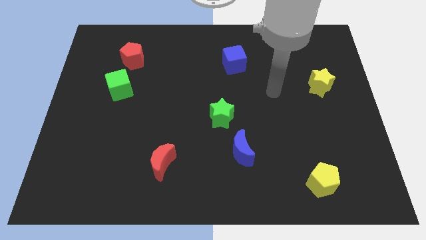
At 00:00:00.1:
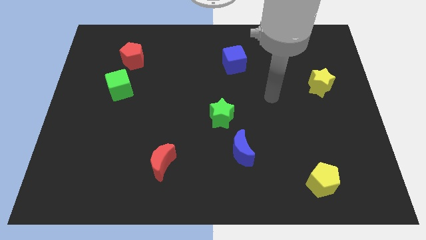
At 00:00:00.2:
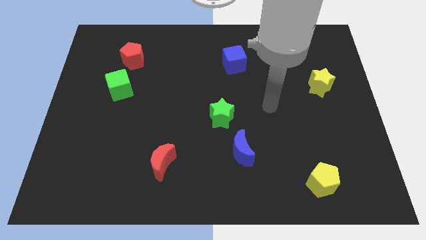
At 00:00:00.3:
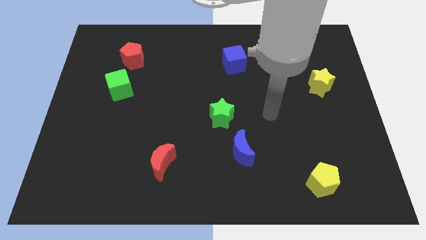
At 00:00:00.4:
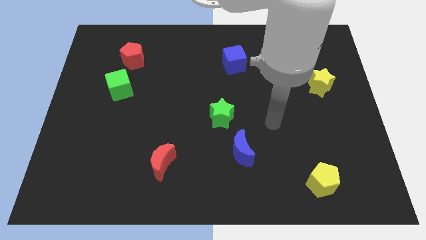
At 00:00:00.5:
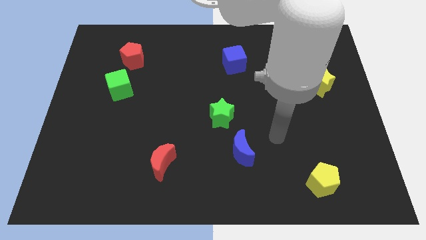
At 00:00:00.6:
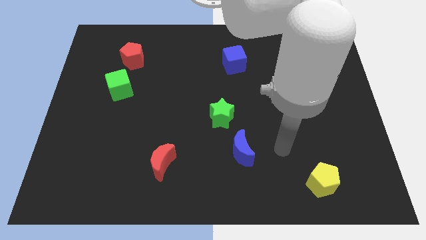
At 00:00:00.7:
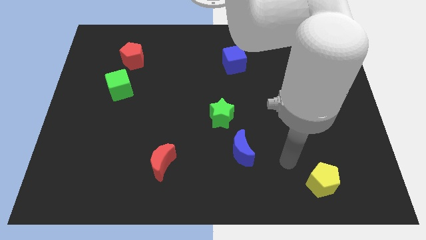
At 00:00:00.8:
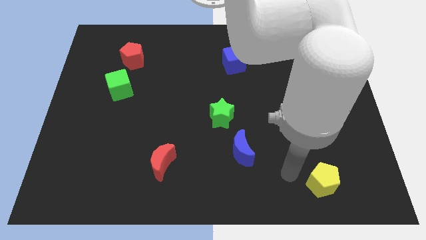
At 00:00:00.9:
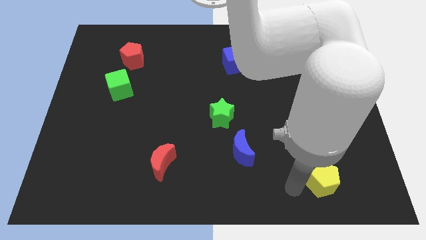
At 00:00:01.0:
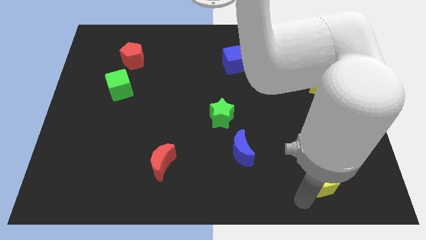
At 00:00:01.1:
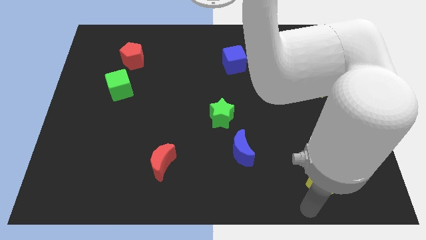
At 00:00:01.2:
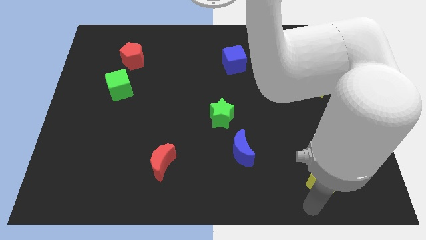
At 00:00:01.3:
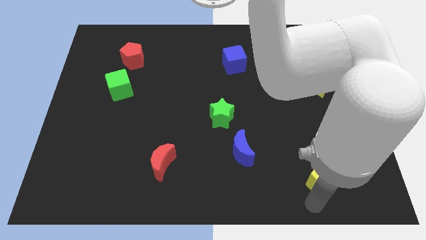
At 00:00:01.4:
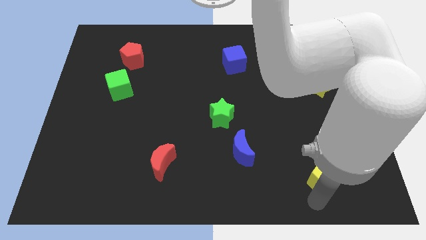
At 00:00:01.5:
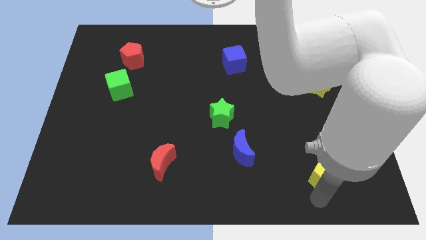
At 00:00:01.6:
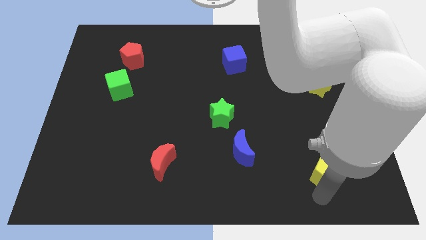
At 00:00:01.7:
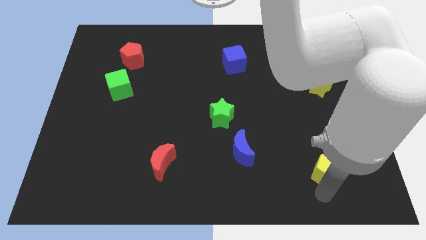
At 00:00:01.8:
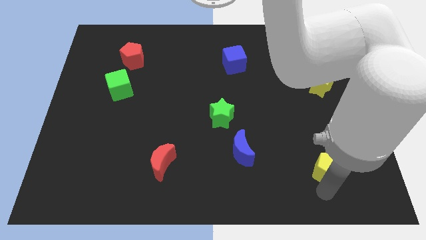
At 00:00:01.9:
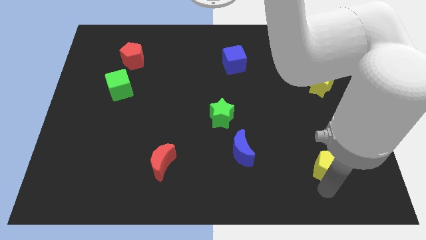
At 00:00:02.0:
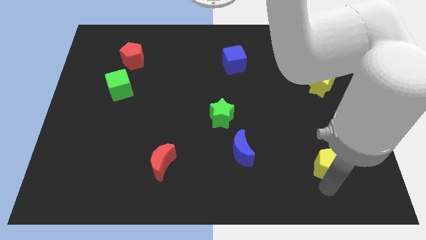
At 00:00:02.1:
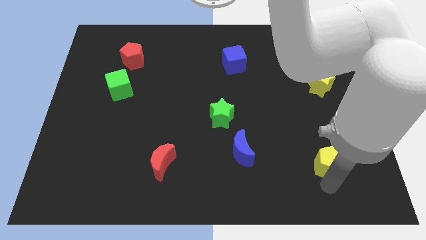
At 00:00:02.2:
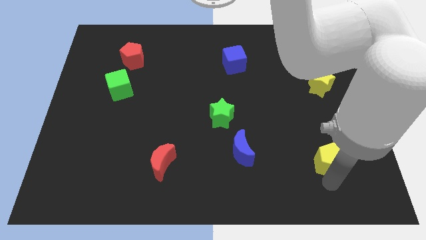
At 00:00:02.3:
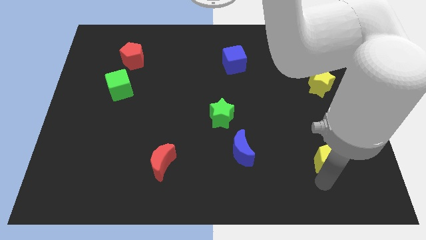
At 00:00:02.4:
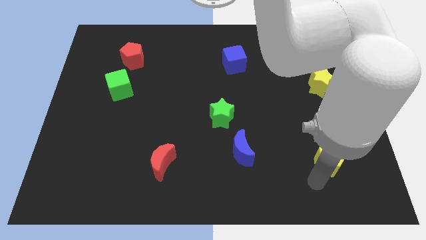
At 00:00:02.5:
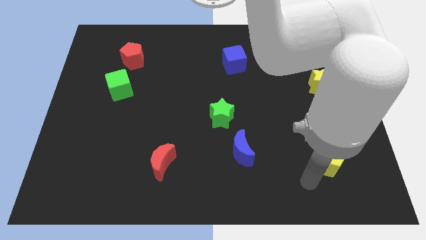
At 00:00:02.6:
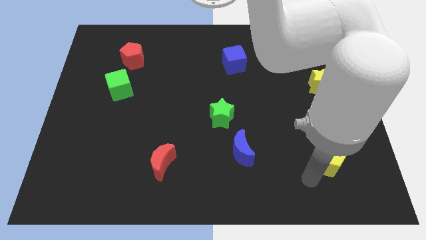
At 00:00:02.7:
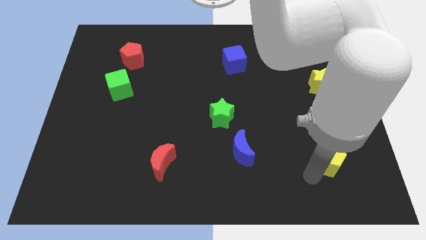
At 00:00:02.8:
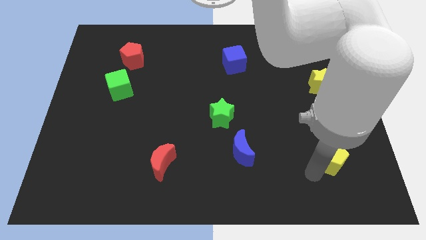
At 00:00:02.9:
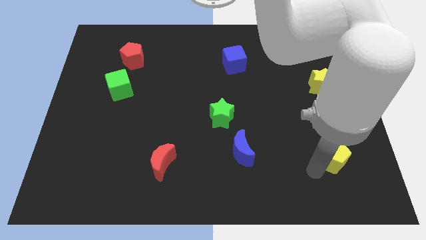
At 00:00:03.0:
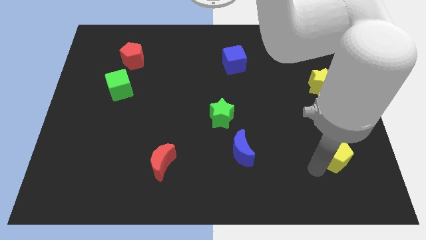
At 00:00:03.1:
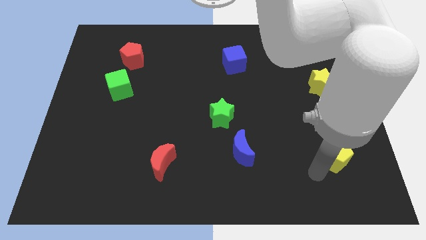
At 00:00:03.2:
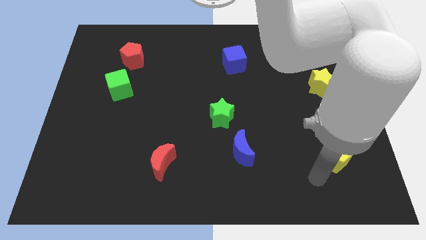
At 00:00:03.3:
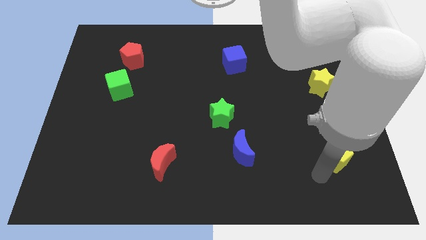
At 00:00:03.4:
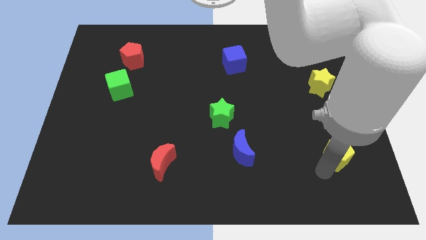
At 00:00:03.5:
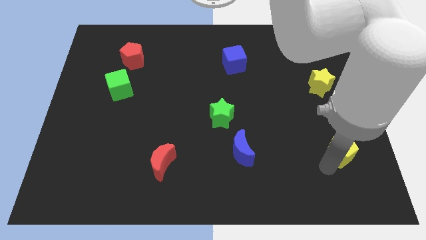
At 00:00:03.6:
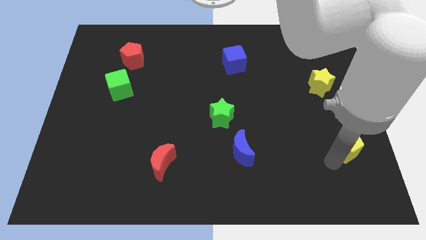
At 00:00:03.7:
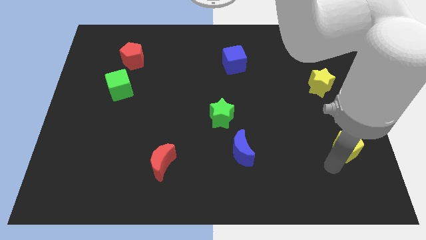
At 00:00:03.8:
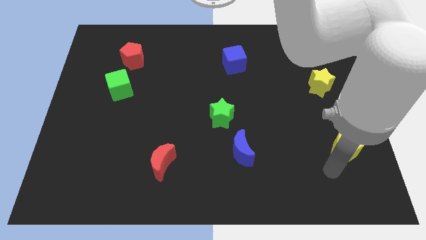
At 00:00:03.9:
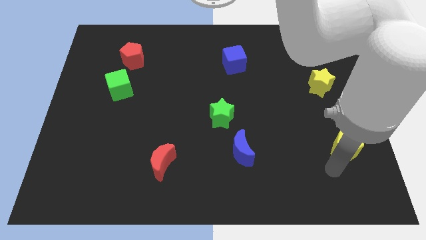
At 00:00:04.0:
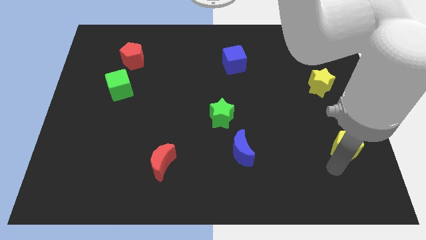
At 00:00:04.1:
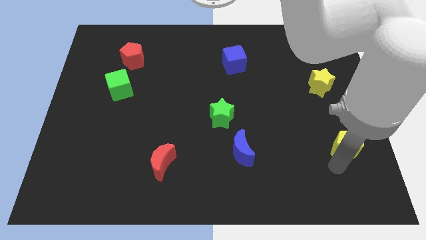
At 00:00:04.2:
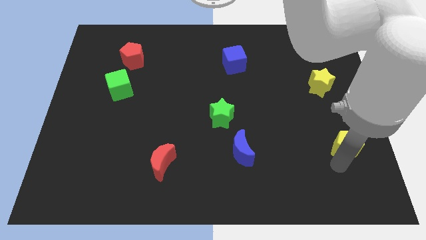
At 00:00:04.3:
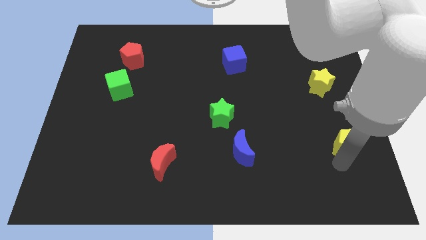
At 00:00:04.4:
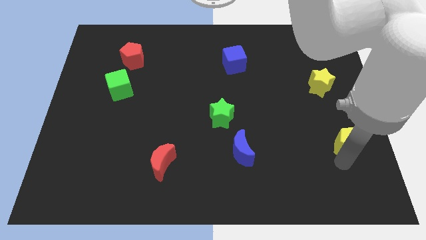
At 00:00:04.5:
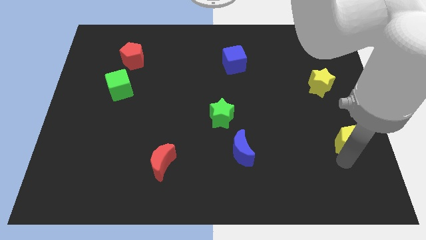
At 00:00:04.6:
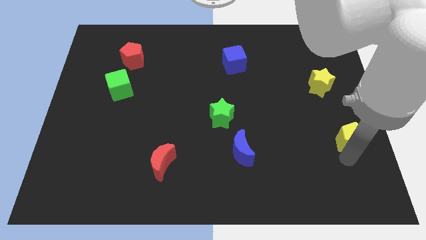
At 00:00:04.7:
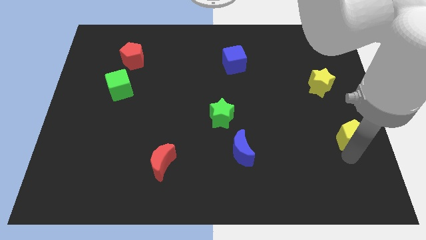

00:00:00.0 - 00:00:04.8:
push the yellow pentagon to the center right

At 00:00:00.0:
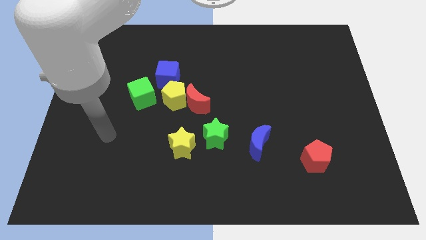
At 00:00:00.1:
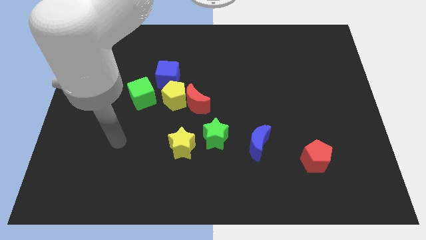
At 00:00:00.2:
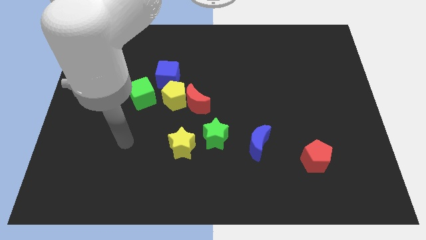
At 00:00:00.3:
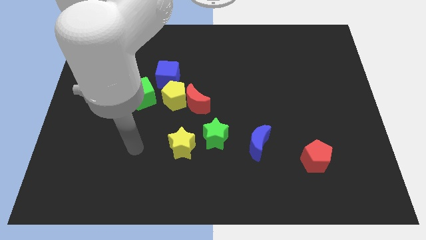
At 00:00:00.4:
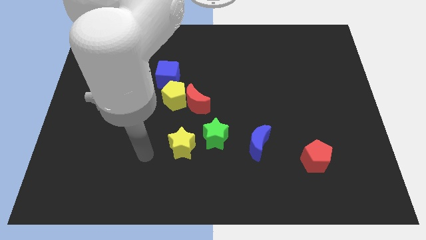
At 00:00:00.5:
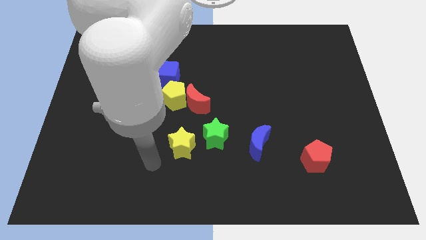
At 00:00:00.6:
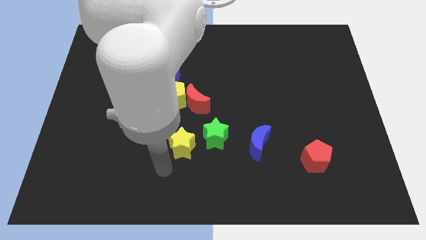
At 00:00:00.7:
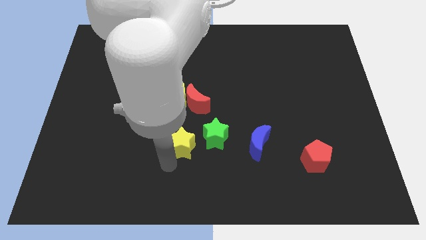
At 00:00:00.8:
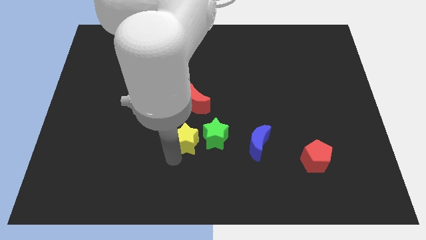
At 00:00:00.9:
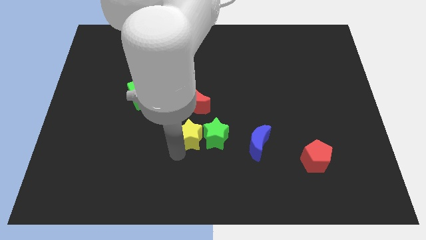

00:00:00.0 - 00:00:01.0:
slide the yellow star to the center of the board
